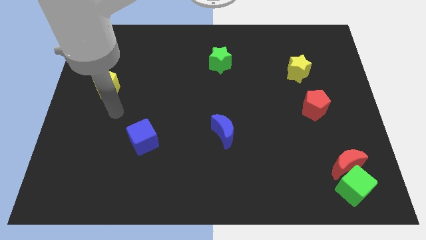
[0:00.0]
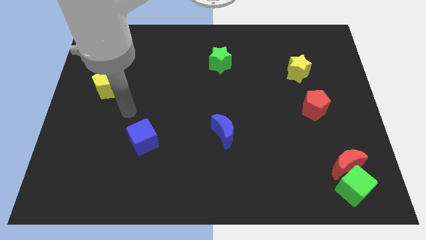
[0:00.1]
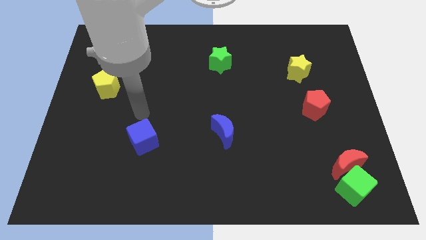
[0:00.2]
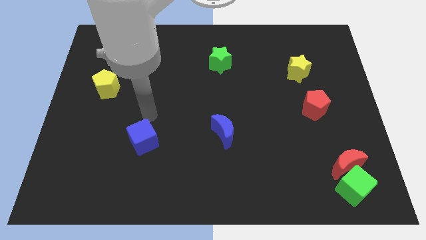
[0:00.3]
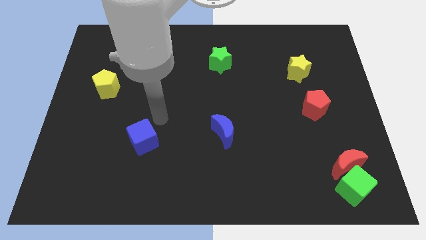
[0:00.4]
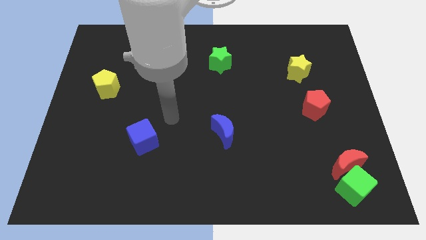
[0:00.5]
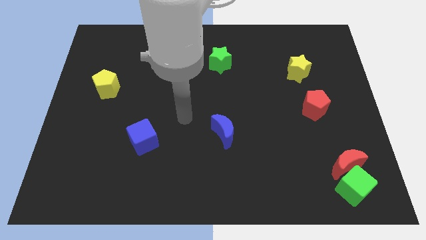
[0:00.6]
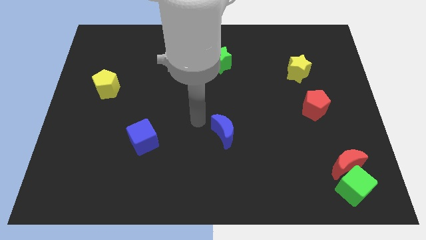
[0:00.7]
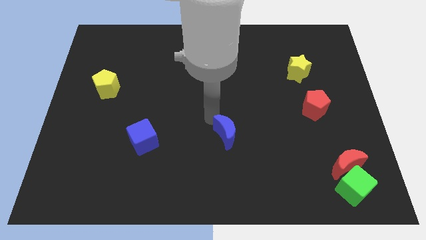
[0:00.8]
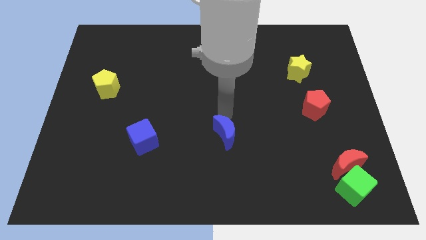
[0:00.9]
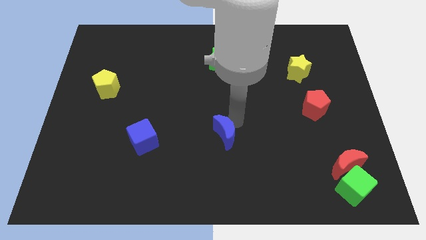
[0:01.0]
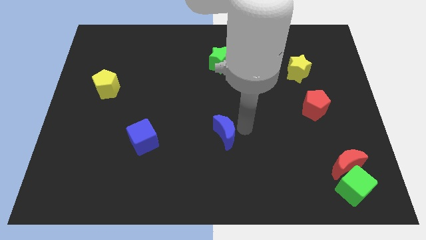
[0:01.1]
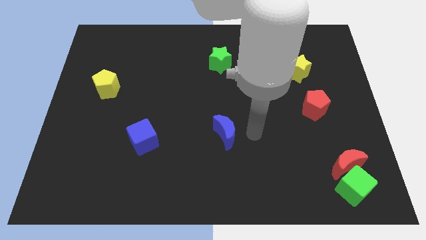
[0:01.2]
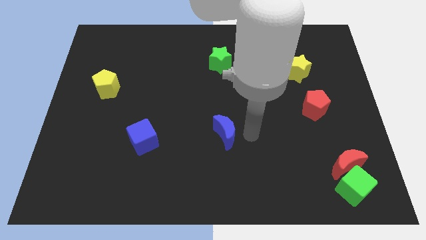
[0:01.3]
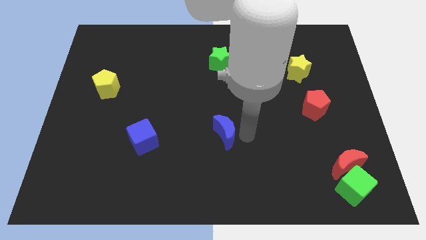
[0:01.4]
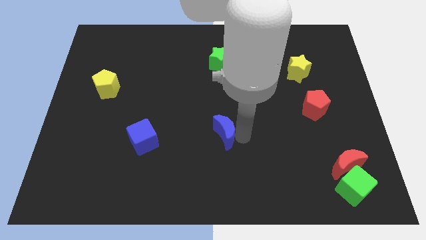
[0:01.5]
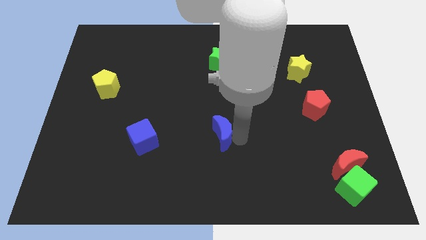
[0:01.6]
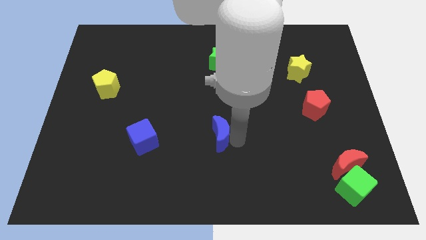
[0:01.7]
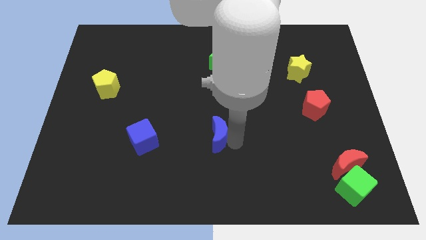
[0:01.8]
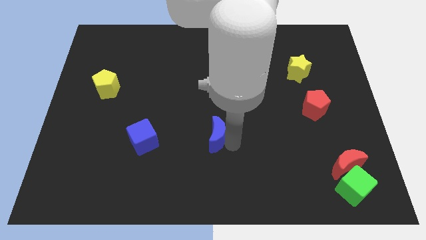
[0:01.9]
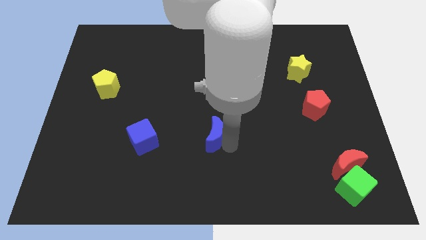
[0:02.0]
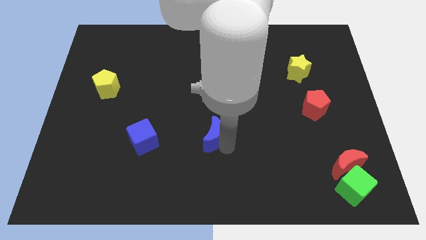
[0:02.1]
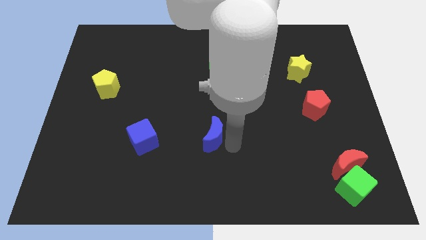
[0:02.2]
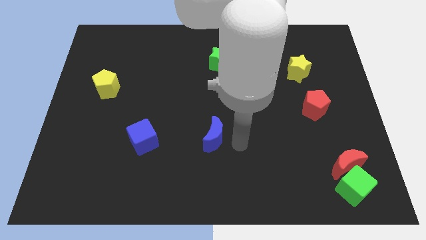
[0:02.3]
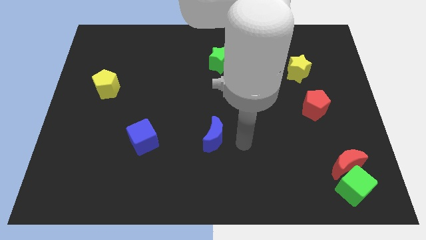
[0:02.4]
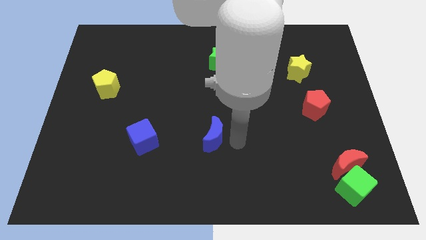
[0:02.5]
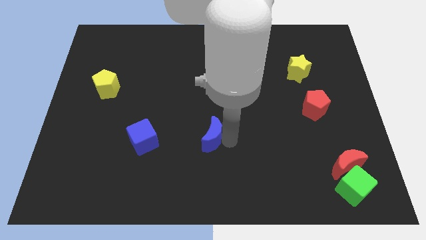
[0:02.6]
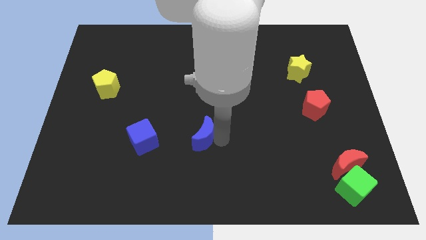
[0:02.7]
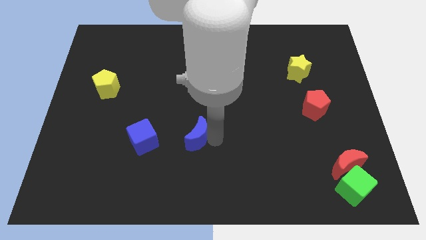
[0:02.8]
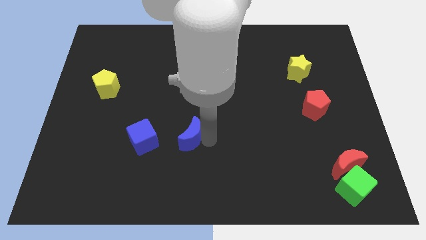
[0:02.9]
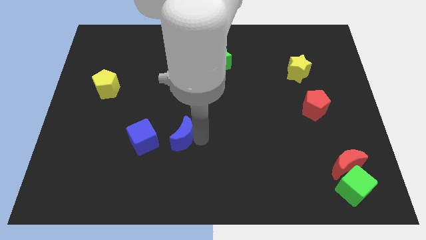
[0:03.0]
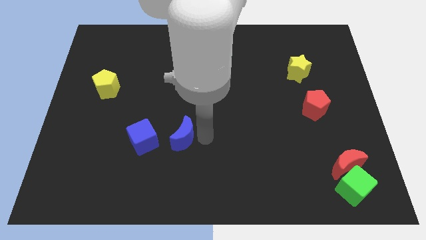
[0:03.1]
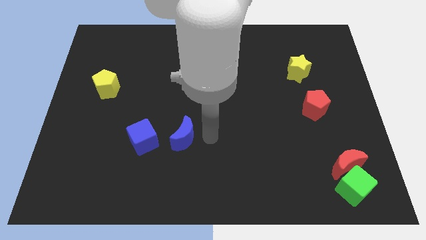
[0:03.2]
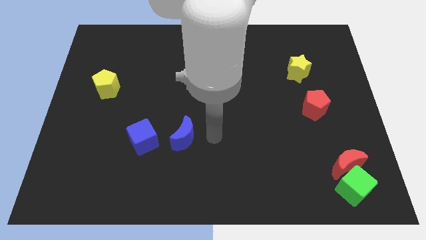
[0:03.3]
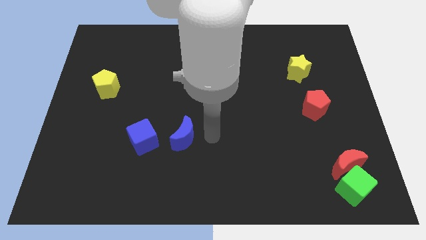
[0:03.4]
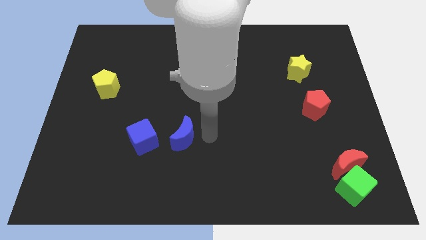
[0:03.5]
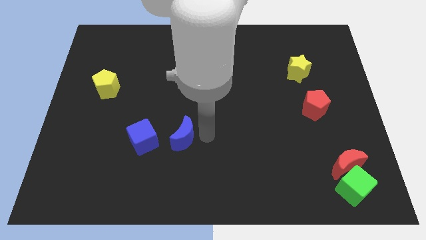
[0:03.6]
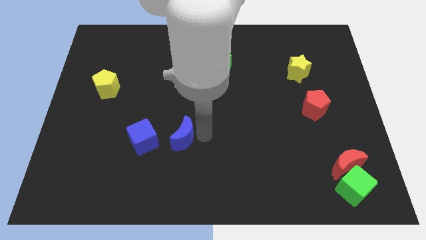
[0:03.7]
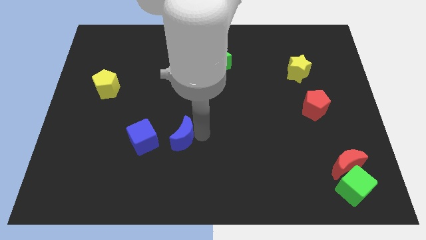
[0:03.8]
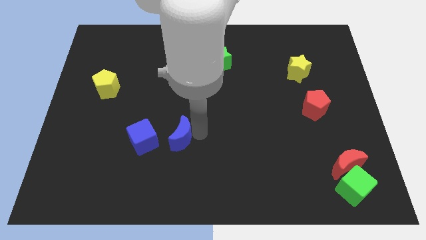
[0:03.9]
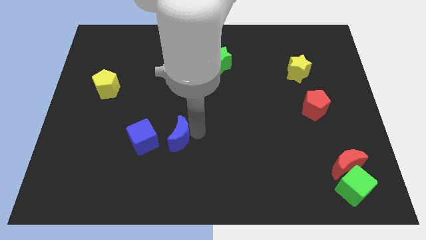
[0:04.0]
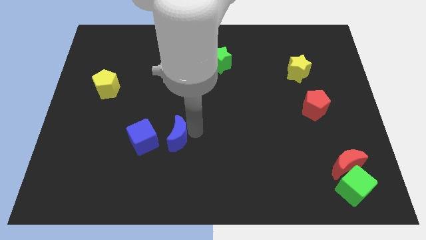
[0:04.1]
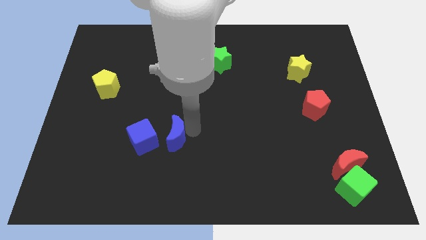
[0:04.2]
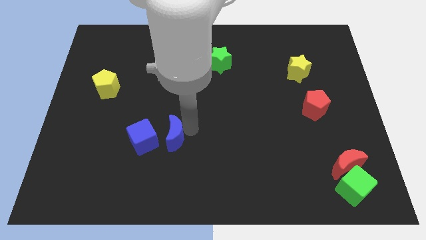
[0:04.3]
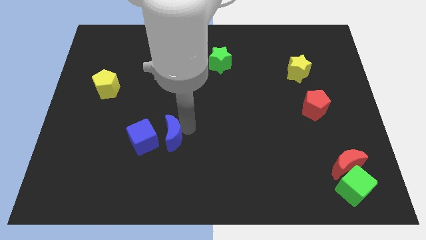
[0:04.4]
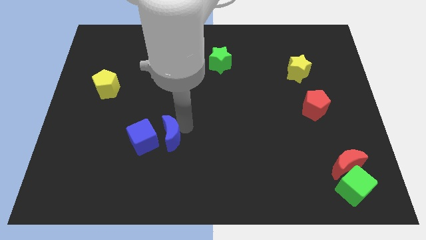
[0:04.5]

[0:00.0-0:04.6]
put the blue moon towards the blue cube

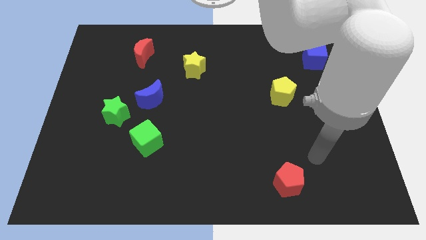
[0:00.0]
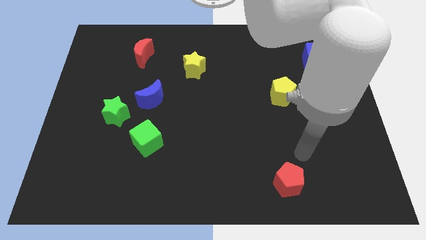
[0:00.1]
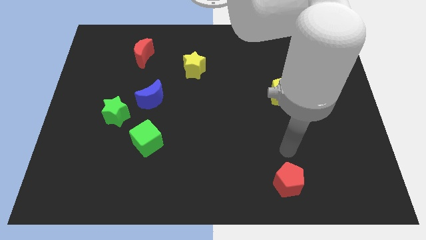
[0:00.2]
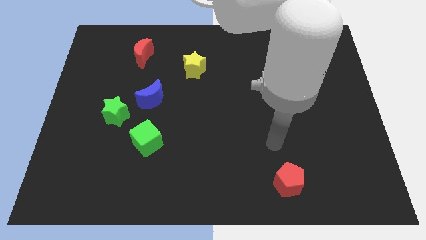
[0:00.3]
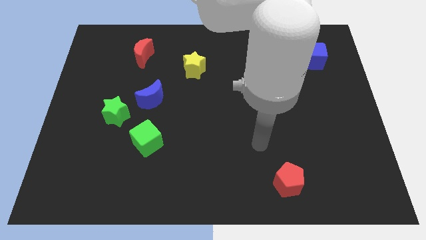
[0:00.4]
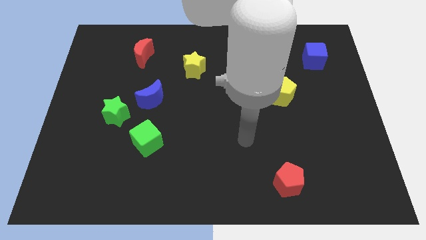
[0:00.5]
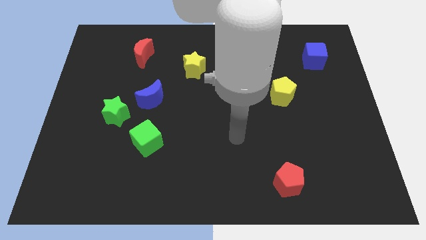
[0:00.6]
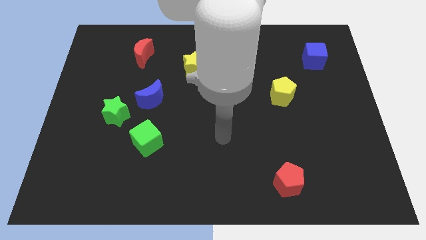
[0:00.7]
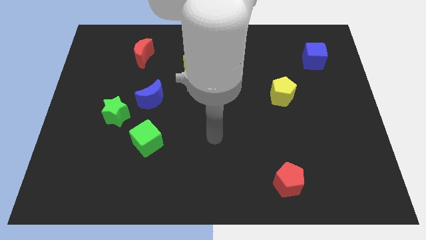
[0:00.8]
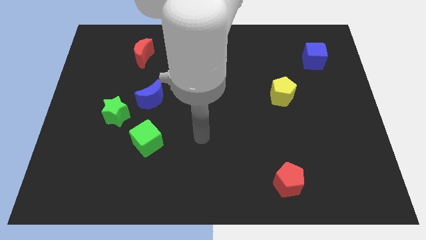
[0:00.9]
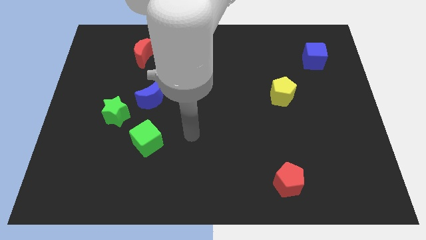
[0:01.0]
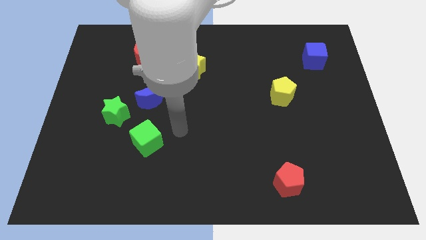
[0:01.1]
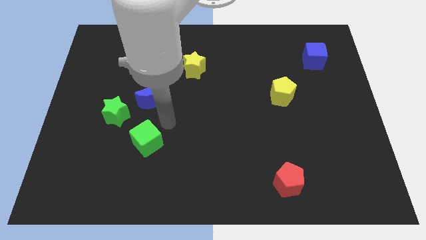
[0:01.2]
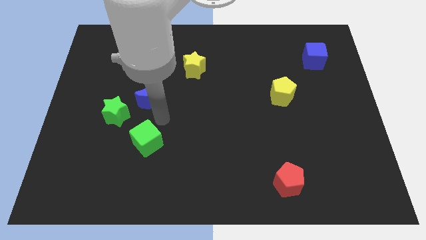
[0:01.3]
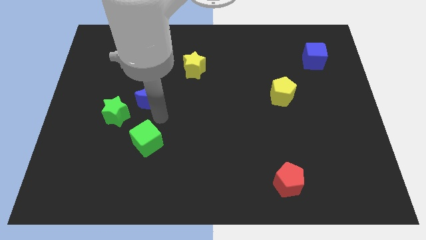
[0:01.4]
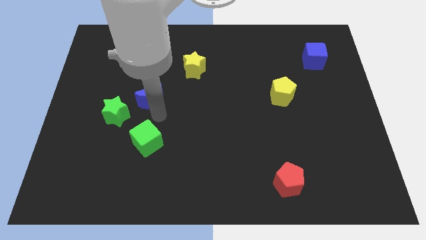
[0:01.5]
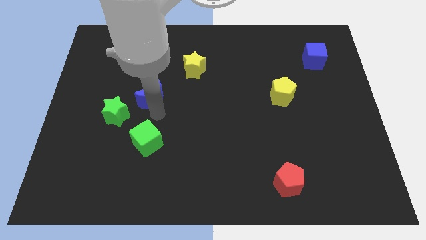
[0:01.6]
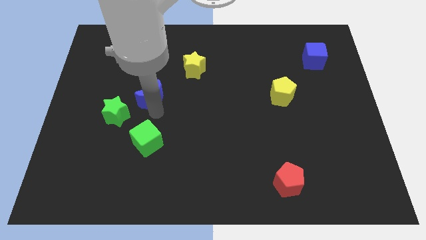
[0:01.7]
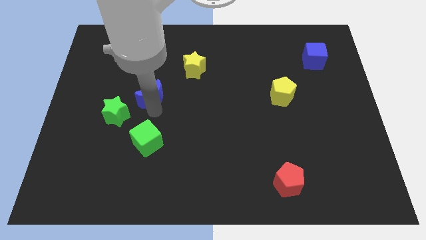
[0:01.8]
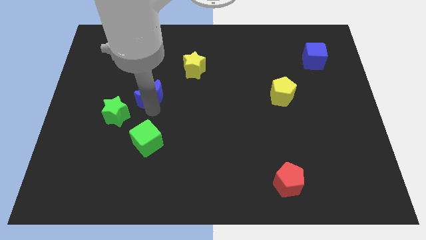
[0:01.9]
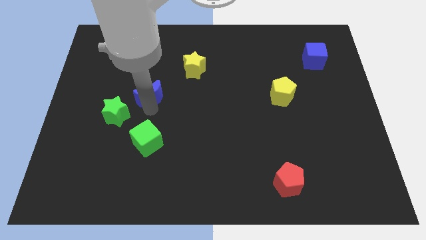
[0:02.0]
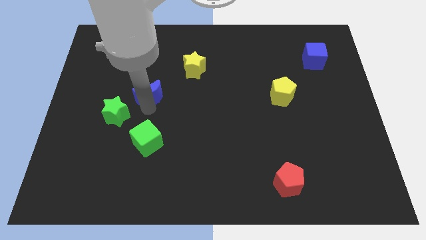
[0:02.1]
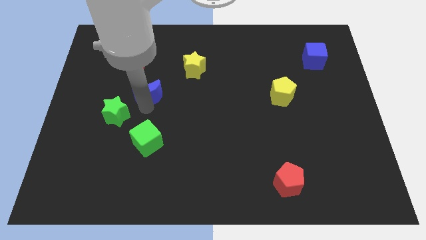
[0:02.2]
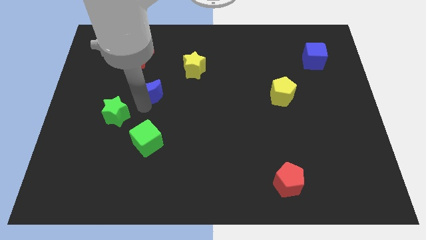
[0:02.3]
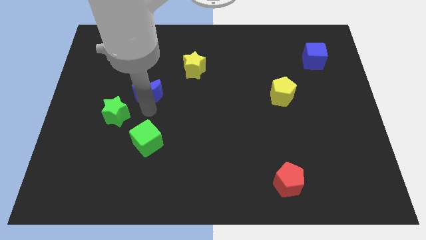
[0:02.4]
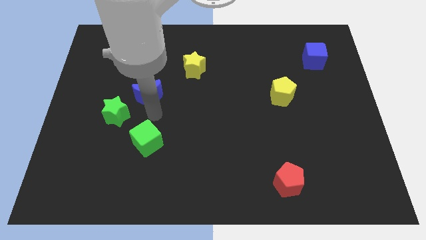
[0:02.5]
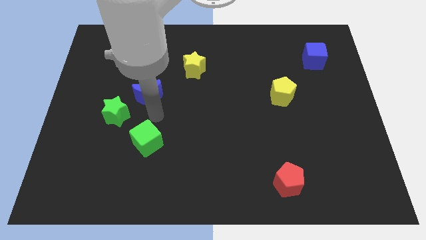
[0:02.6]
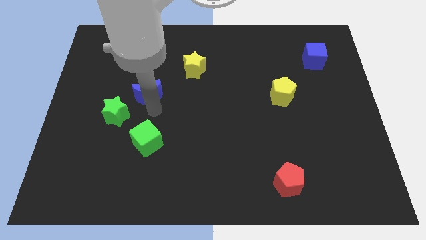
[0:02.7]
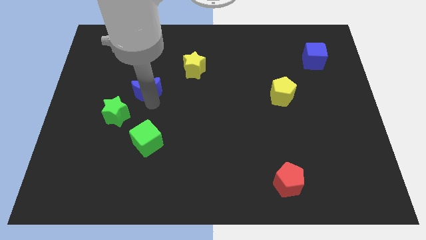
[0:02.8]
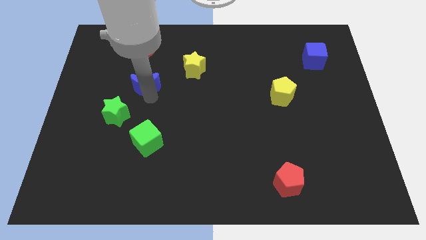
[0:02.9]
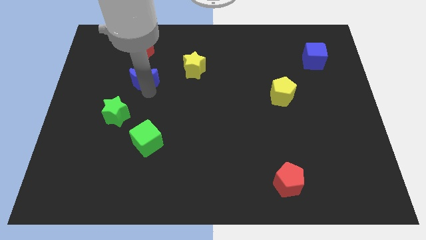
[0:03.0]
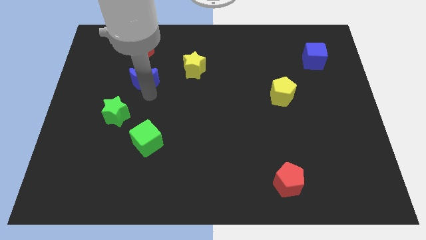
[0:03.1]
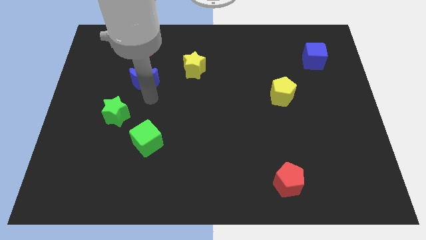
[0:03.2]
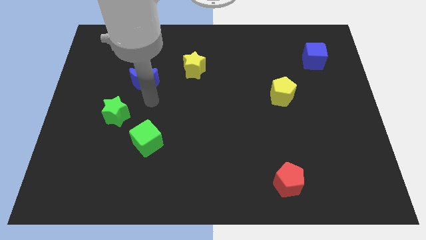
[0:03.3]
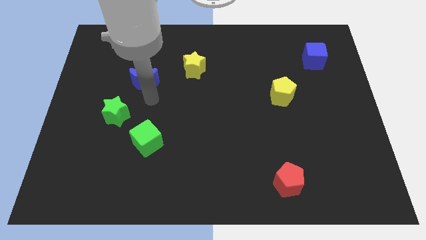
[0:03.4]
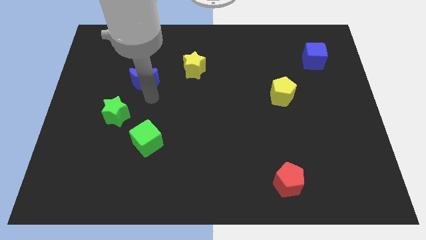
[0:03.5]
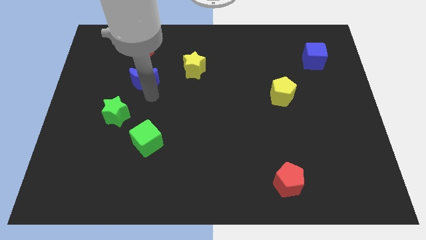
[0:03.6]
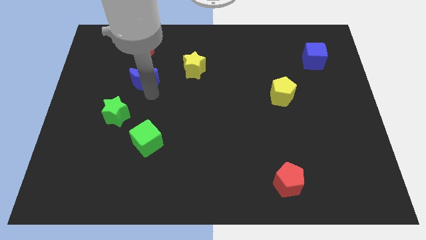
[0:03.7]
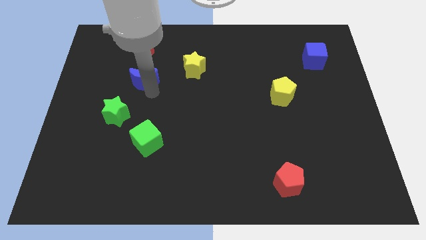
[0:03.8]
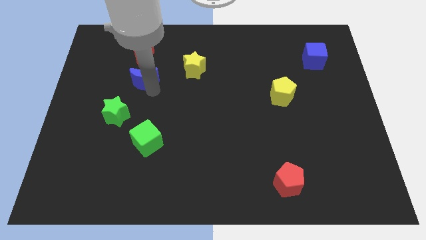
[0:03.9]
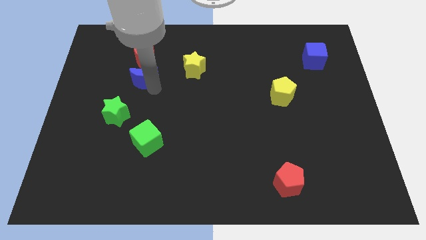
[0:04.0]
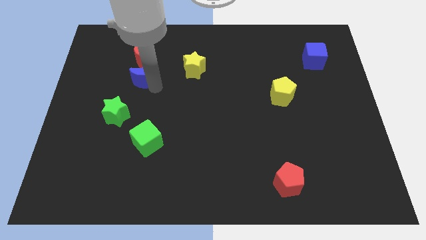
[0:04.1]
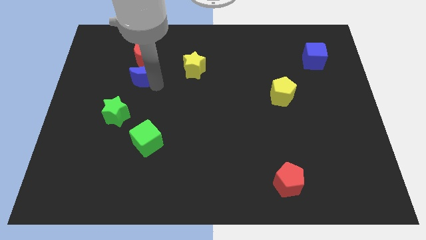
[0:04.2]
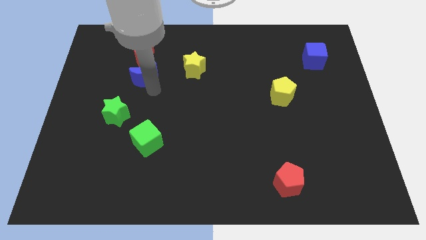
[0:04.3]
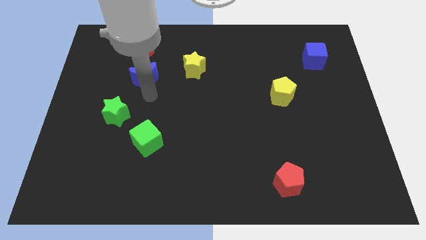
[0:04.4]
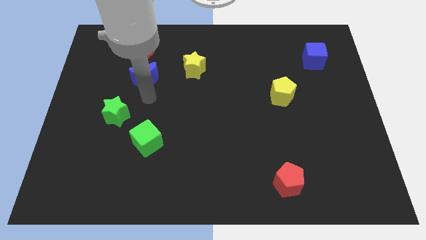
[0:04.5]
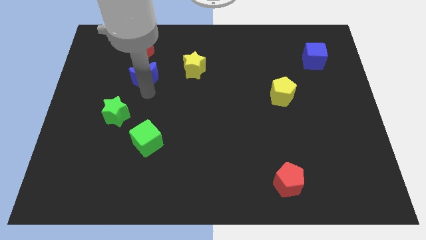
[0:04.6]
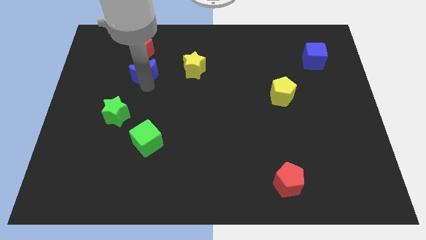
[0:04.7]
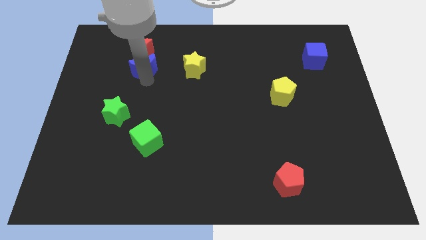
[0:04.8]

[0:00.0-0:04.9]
move the blue moon next to the red moon
